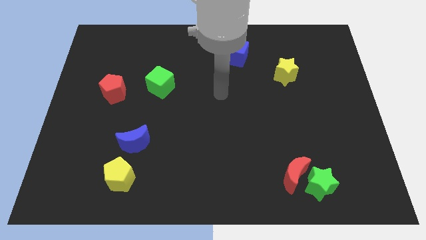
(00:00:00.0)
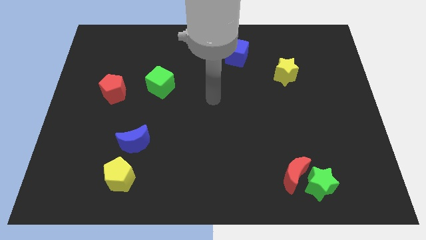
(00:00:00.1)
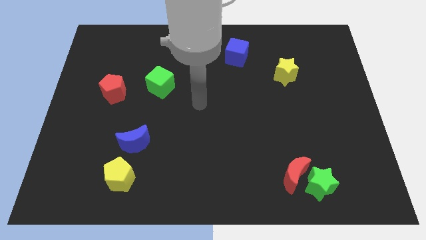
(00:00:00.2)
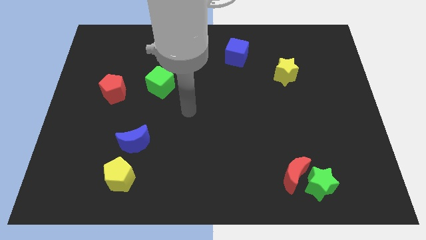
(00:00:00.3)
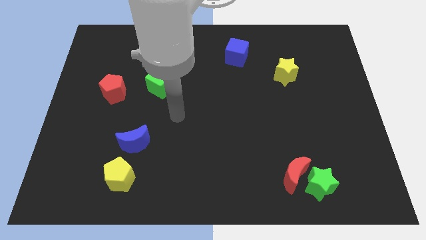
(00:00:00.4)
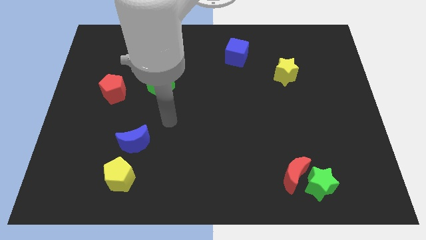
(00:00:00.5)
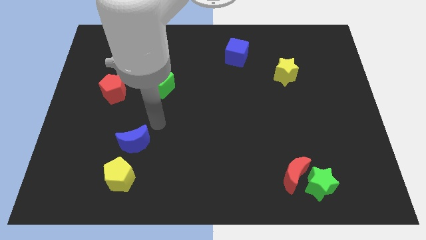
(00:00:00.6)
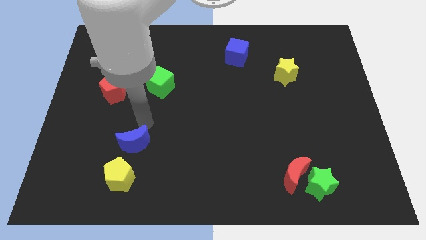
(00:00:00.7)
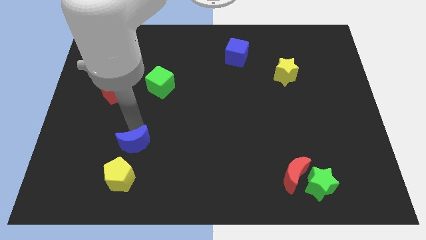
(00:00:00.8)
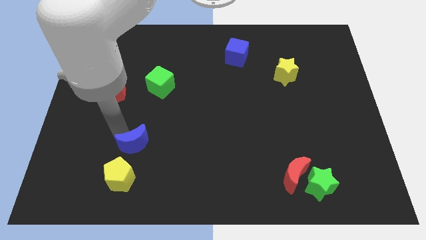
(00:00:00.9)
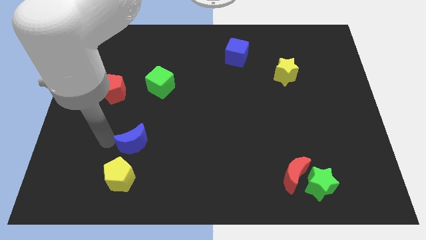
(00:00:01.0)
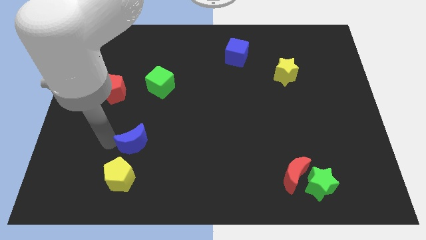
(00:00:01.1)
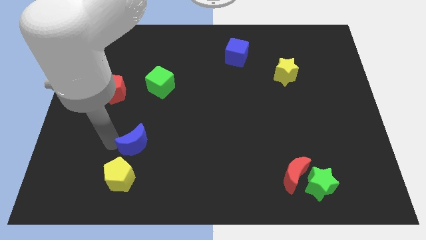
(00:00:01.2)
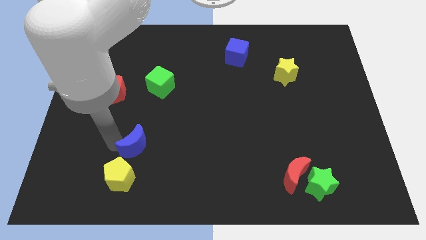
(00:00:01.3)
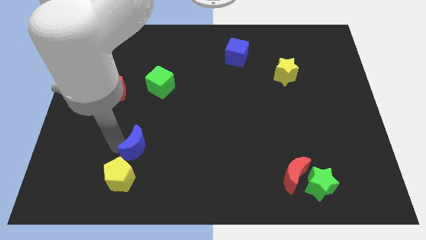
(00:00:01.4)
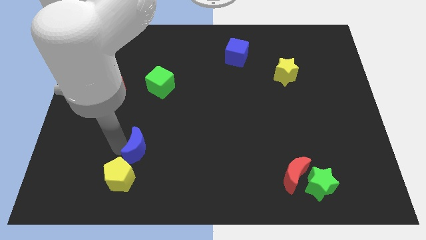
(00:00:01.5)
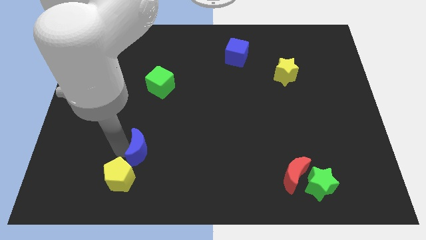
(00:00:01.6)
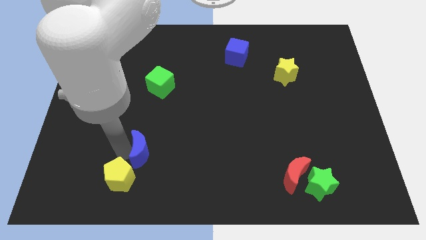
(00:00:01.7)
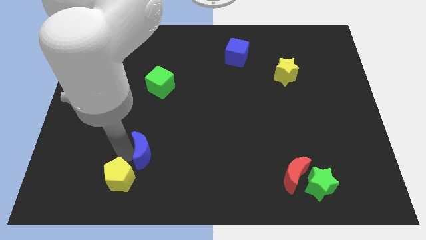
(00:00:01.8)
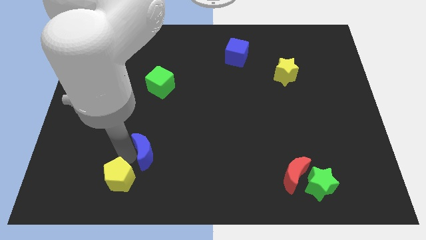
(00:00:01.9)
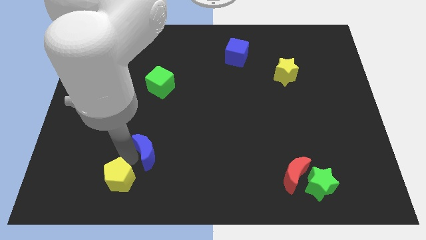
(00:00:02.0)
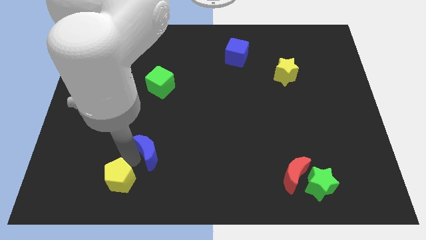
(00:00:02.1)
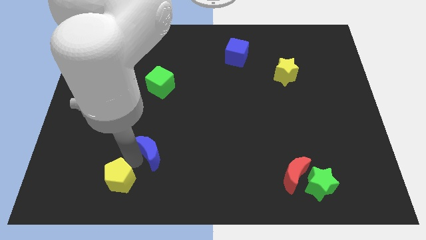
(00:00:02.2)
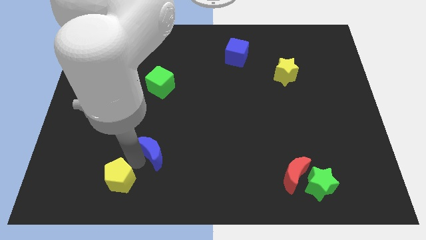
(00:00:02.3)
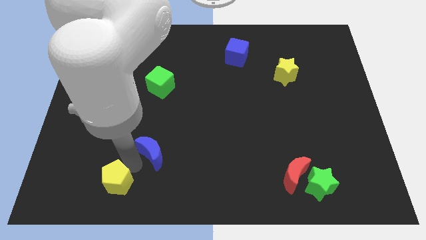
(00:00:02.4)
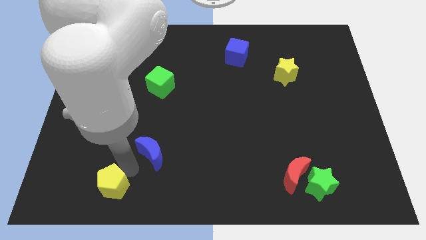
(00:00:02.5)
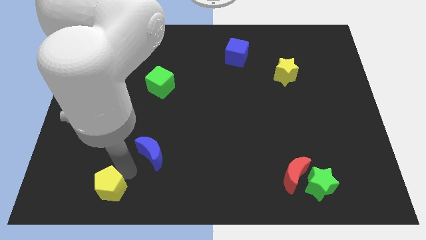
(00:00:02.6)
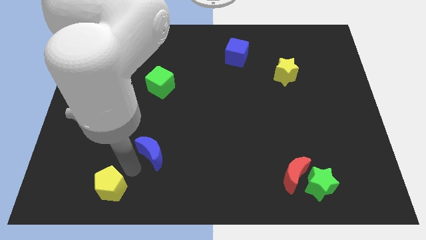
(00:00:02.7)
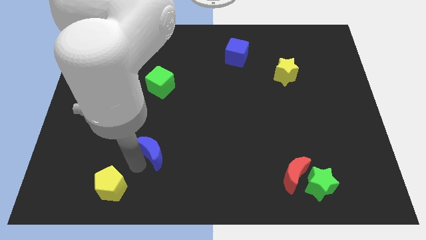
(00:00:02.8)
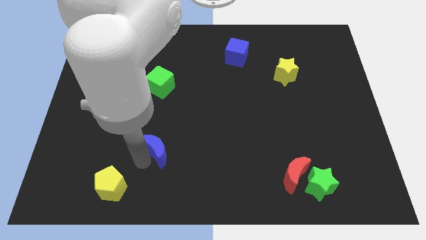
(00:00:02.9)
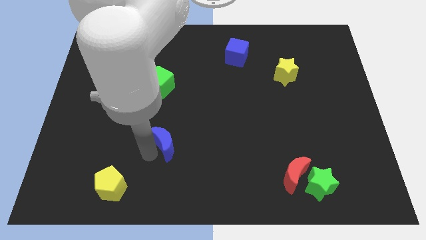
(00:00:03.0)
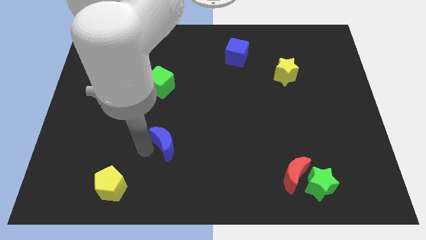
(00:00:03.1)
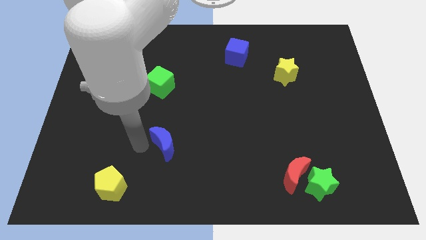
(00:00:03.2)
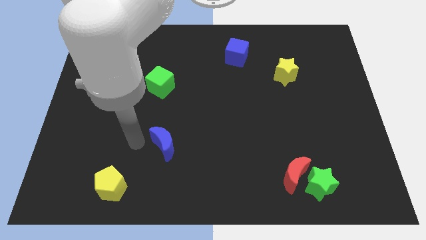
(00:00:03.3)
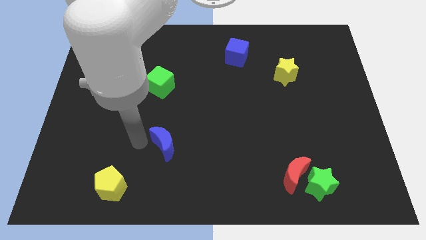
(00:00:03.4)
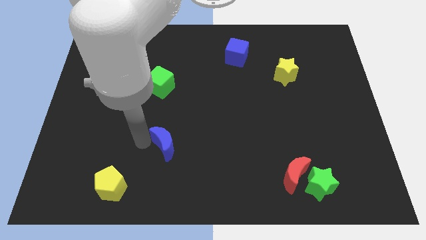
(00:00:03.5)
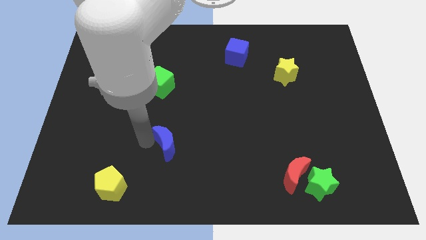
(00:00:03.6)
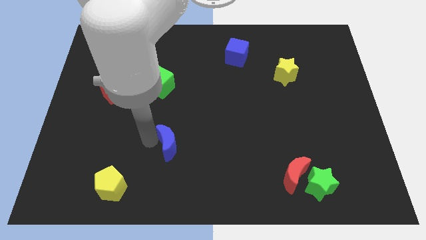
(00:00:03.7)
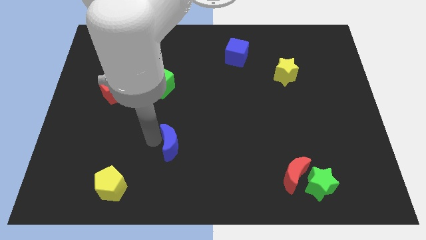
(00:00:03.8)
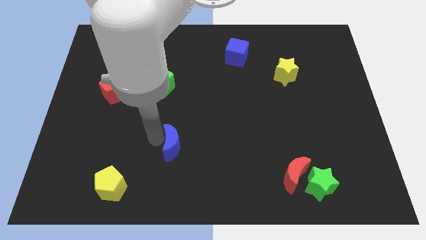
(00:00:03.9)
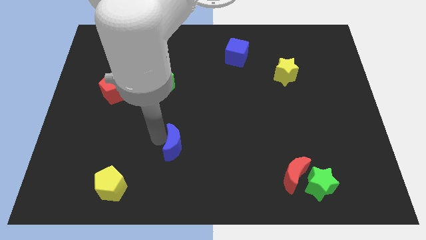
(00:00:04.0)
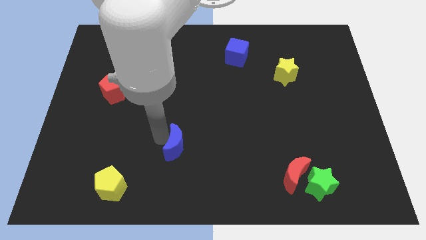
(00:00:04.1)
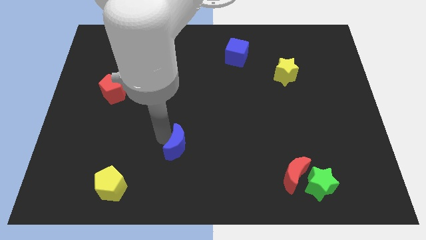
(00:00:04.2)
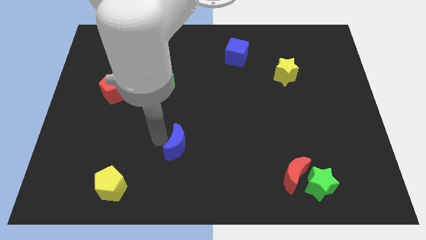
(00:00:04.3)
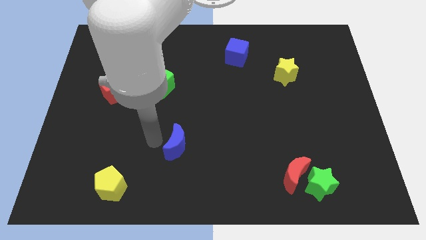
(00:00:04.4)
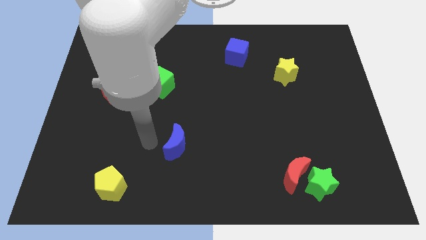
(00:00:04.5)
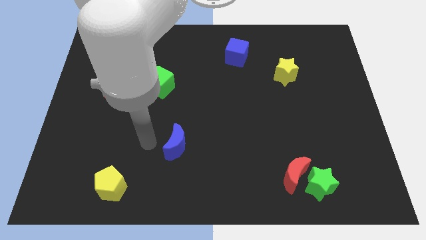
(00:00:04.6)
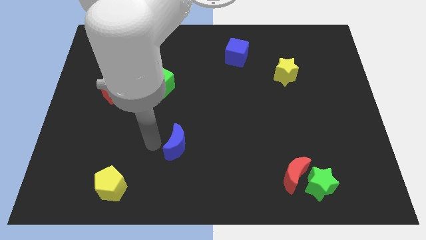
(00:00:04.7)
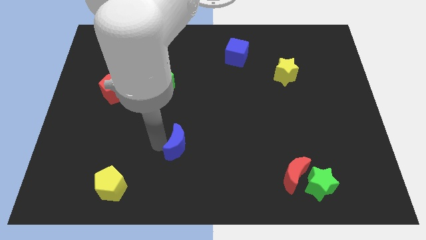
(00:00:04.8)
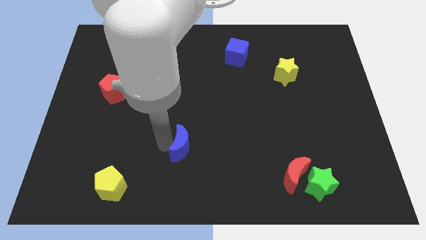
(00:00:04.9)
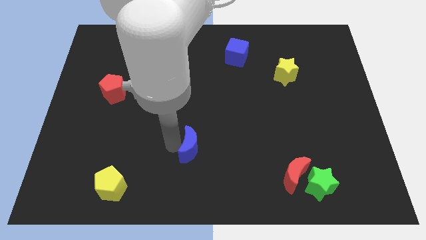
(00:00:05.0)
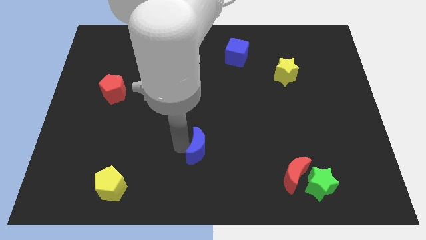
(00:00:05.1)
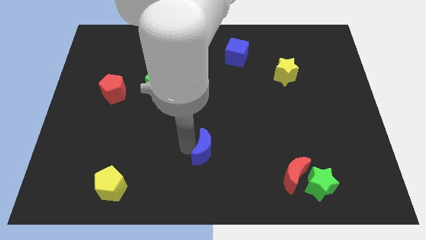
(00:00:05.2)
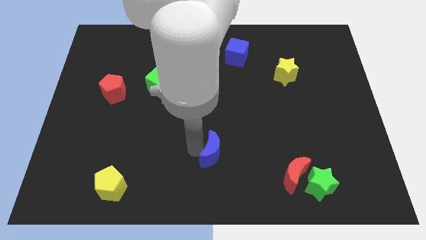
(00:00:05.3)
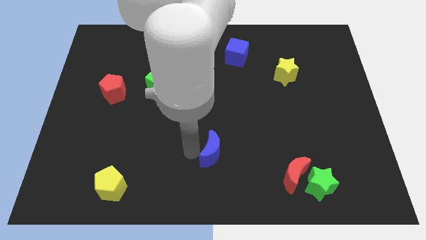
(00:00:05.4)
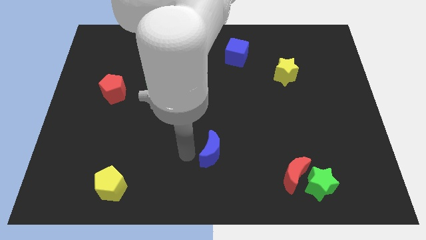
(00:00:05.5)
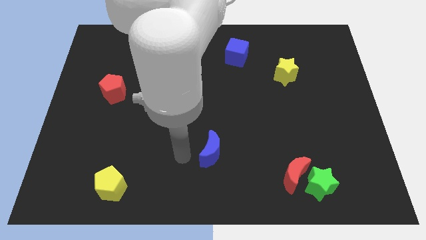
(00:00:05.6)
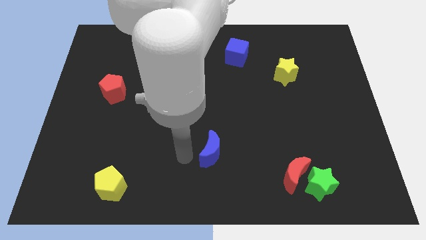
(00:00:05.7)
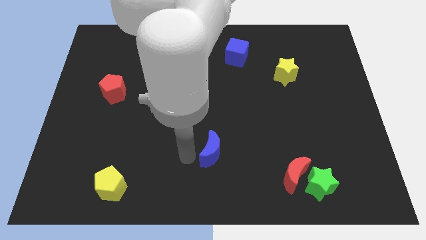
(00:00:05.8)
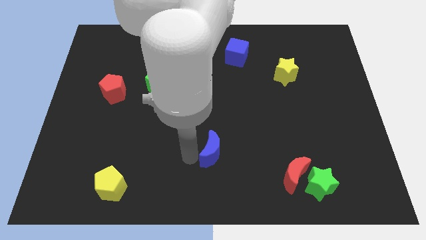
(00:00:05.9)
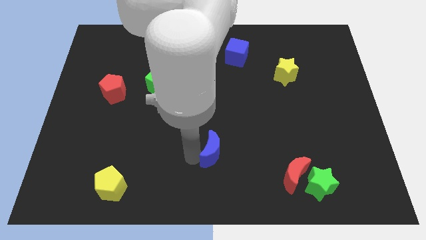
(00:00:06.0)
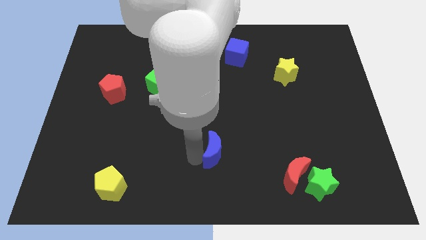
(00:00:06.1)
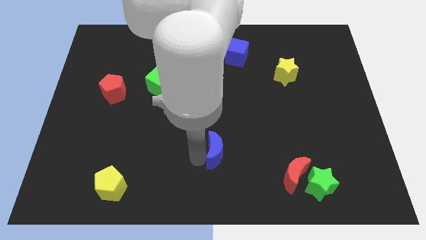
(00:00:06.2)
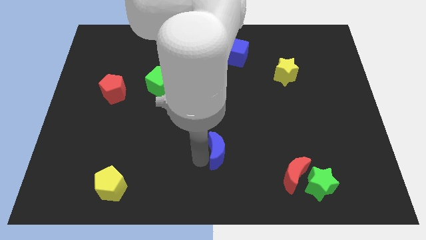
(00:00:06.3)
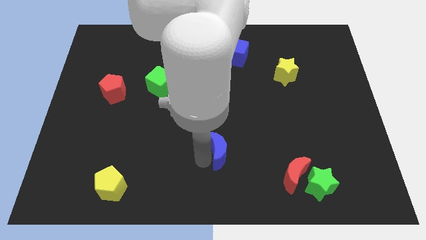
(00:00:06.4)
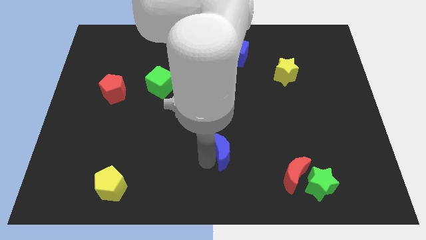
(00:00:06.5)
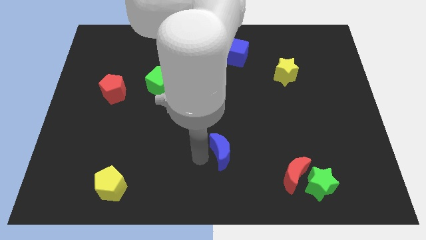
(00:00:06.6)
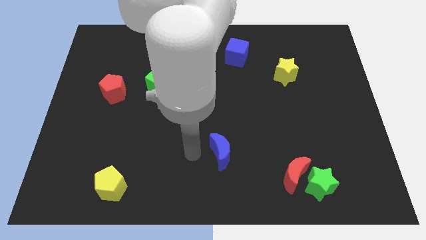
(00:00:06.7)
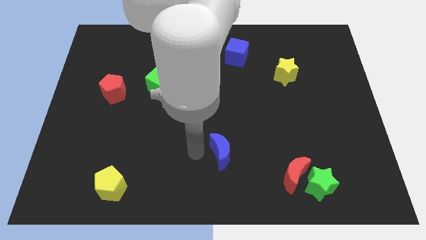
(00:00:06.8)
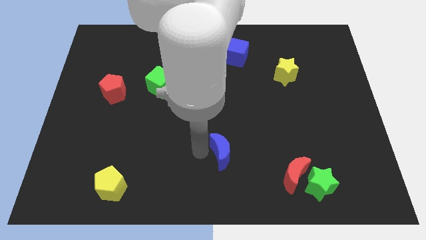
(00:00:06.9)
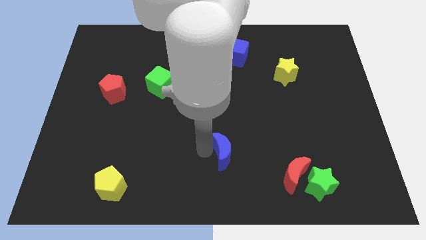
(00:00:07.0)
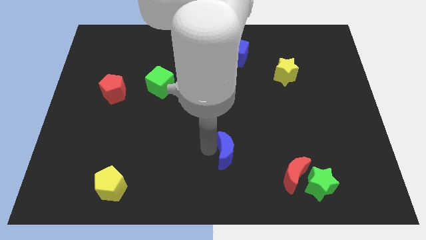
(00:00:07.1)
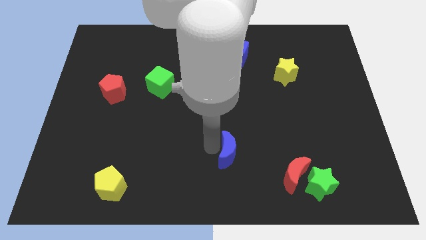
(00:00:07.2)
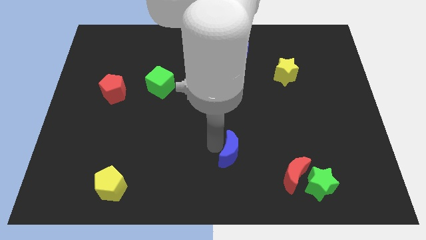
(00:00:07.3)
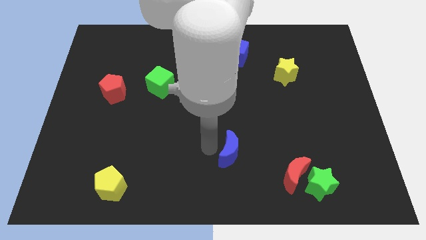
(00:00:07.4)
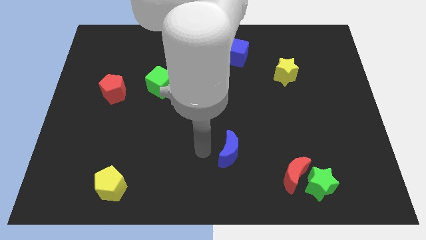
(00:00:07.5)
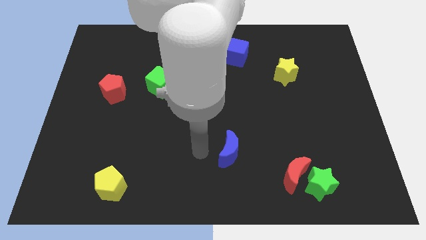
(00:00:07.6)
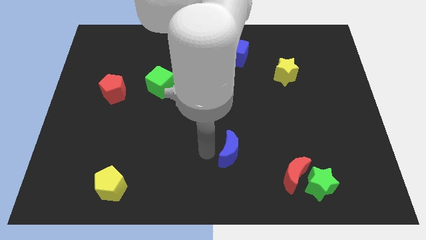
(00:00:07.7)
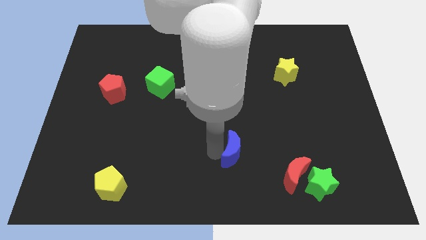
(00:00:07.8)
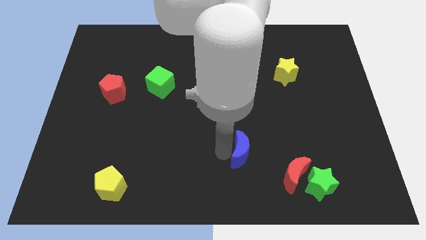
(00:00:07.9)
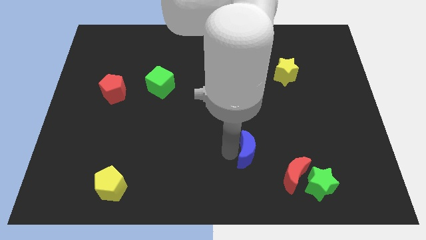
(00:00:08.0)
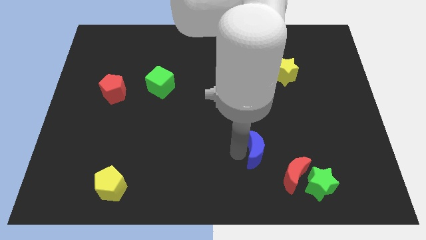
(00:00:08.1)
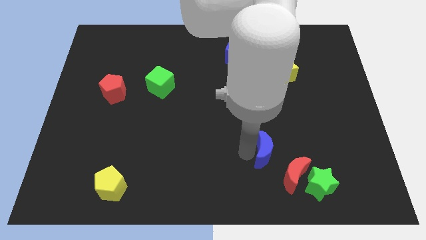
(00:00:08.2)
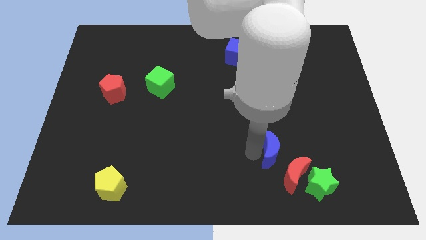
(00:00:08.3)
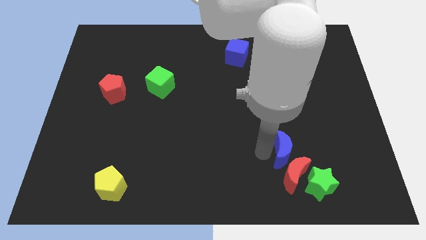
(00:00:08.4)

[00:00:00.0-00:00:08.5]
put the blue moon to the top right of the red moon

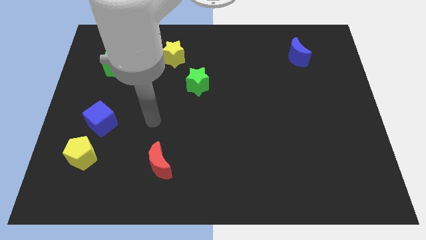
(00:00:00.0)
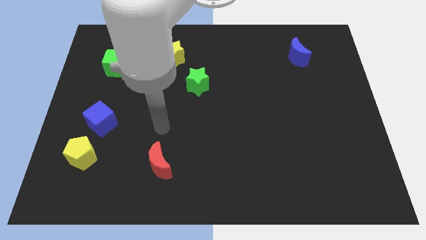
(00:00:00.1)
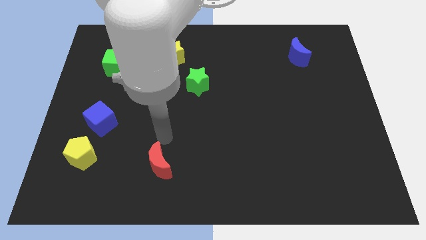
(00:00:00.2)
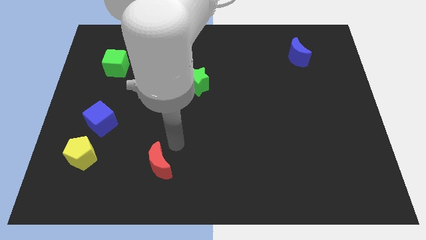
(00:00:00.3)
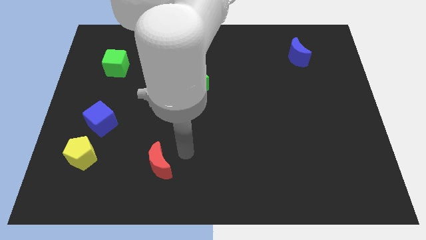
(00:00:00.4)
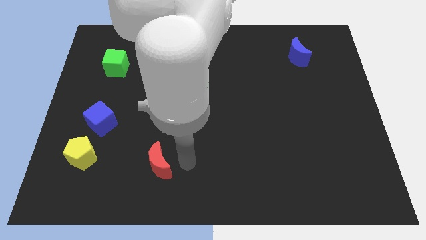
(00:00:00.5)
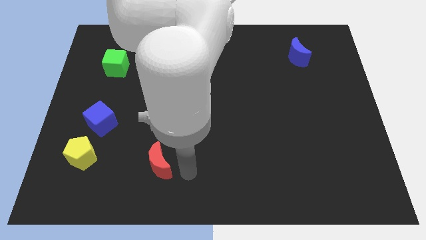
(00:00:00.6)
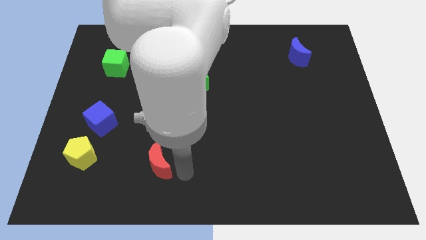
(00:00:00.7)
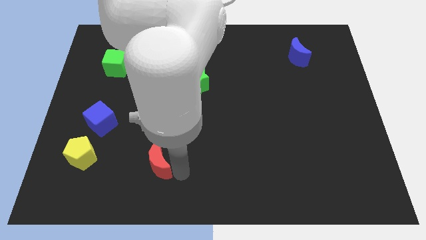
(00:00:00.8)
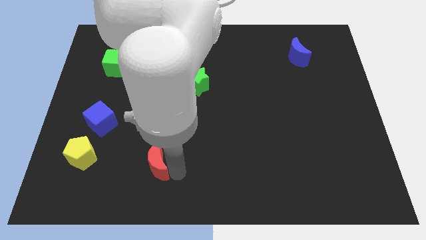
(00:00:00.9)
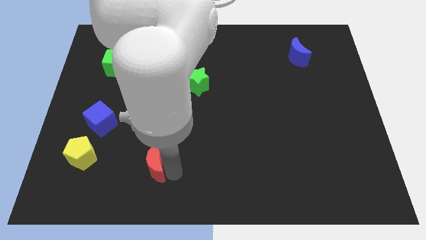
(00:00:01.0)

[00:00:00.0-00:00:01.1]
move the red moon right of the yellow pentagon
